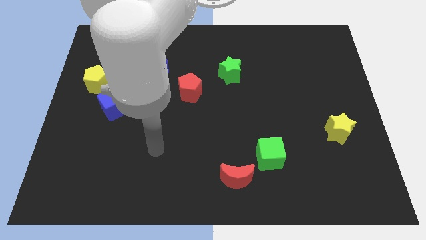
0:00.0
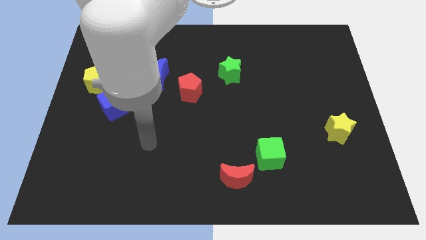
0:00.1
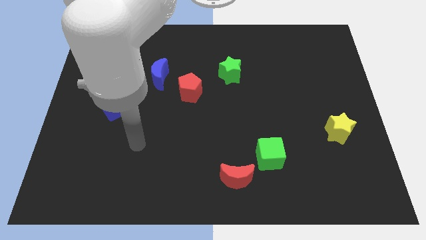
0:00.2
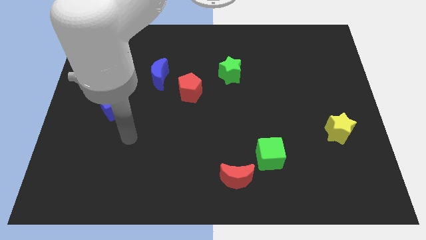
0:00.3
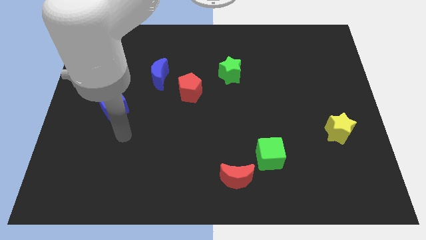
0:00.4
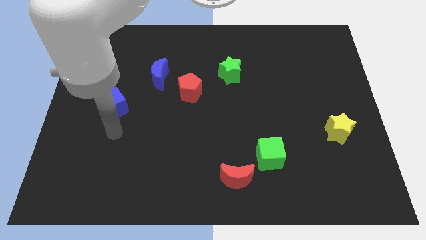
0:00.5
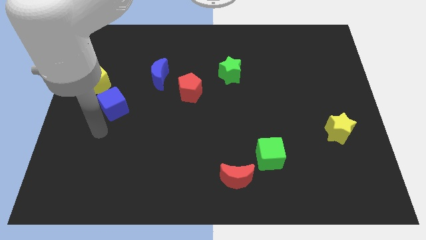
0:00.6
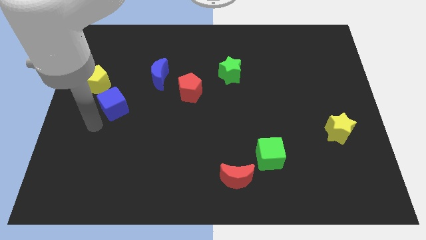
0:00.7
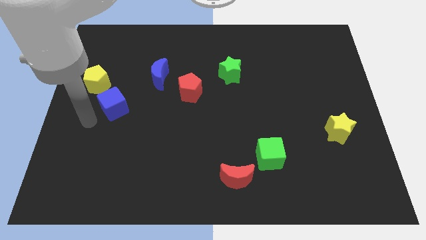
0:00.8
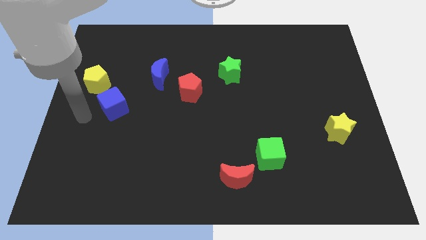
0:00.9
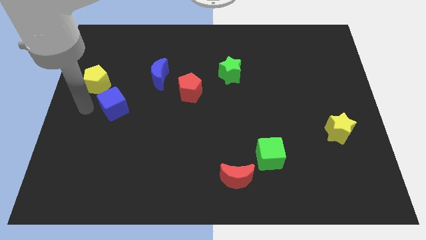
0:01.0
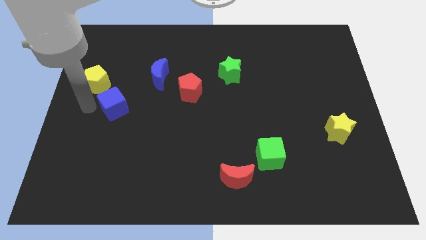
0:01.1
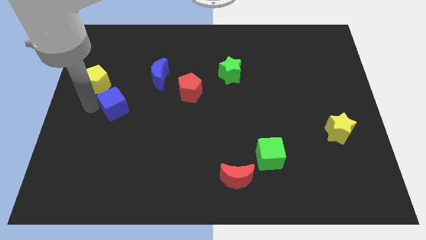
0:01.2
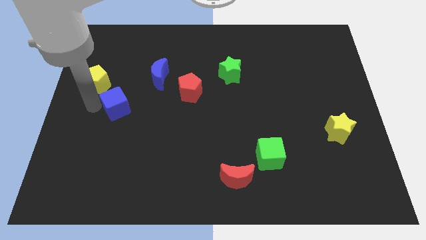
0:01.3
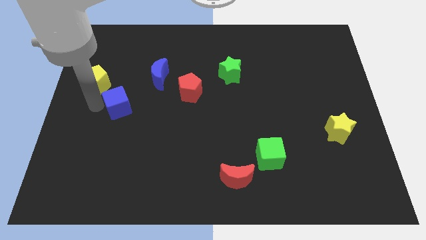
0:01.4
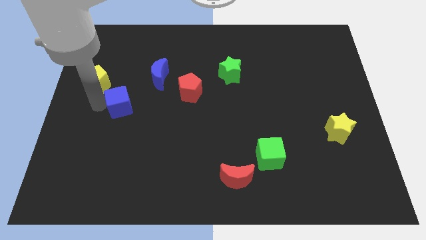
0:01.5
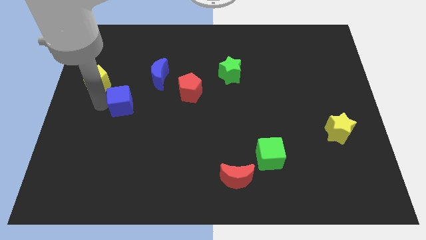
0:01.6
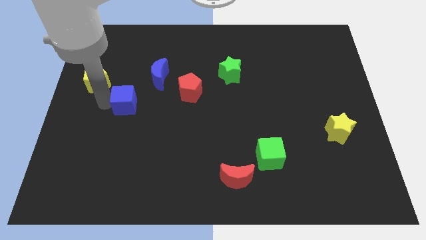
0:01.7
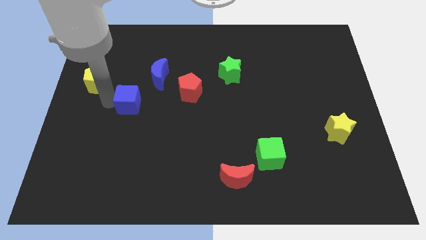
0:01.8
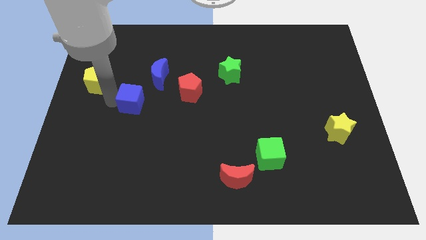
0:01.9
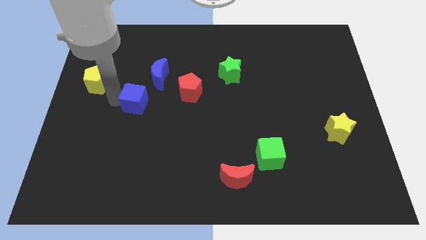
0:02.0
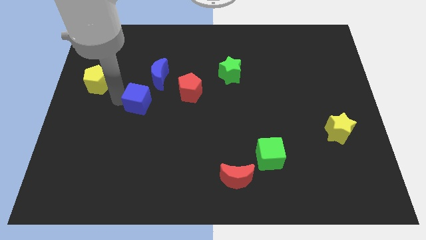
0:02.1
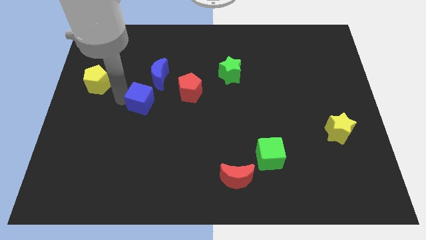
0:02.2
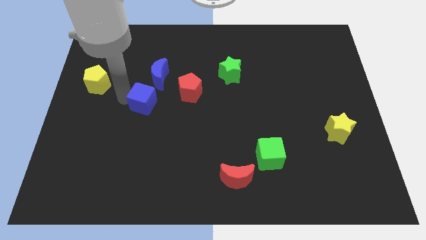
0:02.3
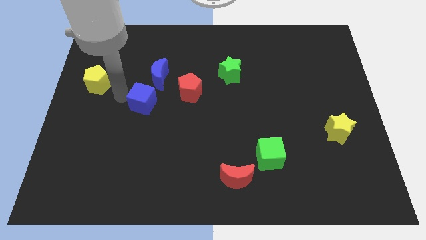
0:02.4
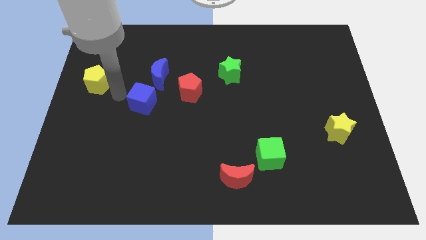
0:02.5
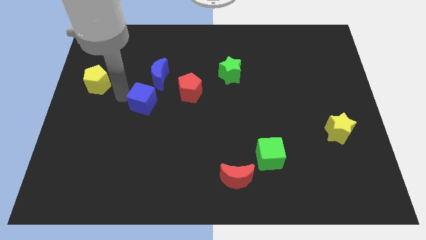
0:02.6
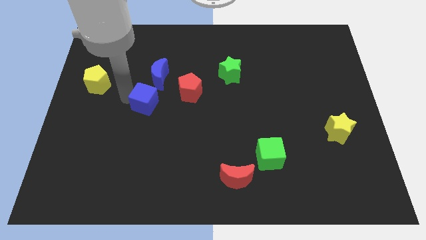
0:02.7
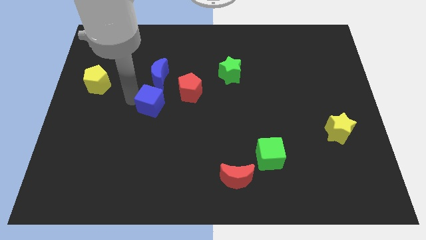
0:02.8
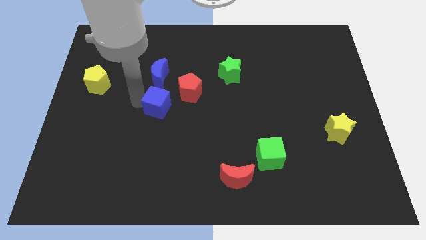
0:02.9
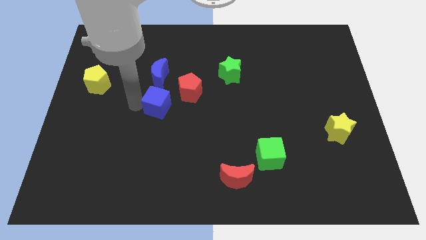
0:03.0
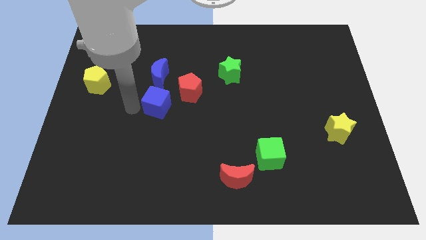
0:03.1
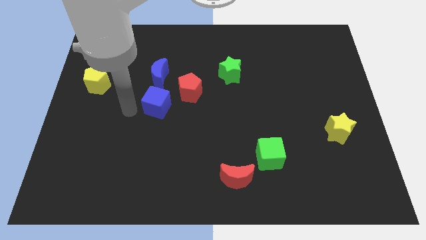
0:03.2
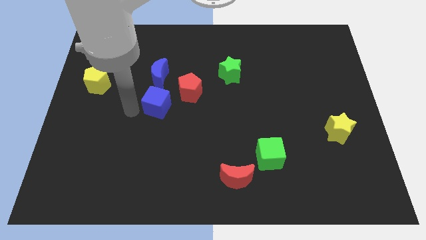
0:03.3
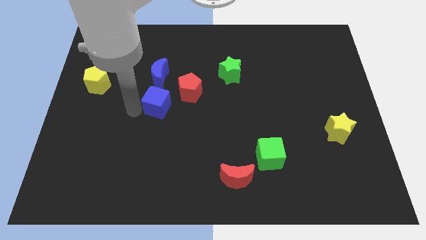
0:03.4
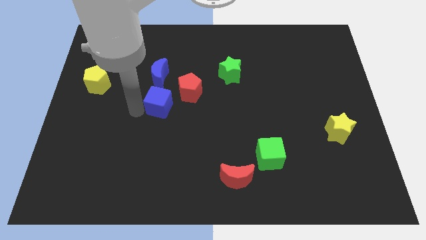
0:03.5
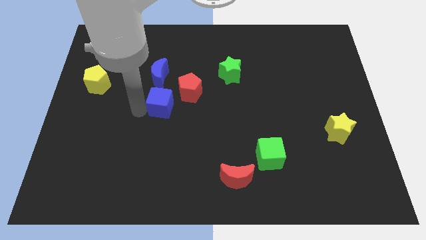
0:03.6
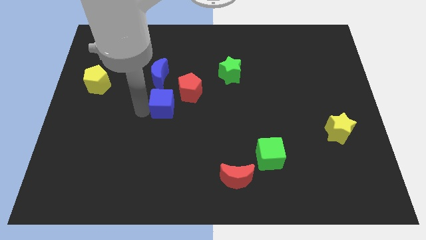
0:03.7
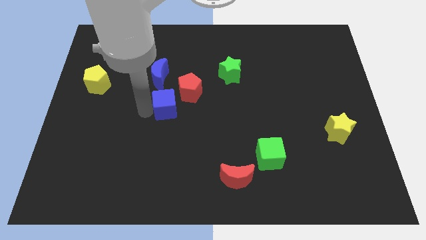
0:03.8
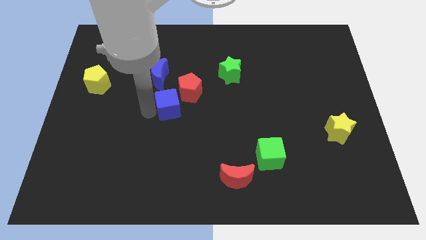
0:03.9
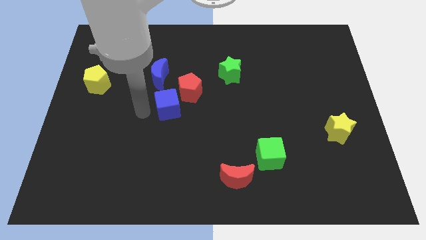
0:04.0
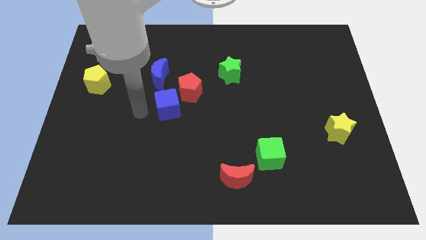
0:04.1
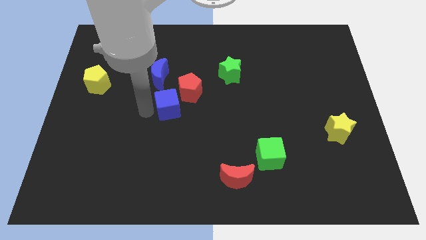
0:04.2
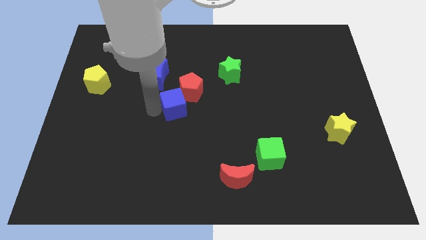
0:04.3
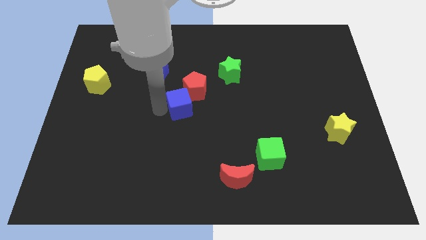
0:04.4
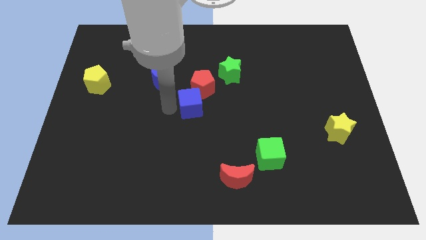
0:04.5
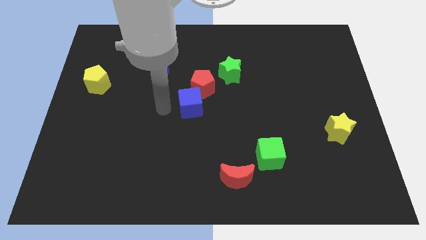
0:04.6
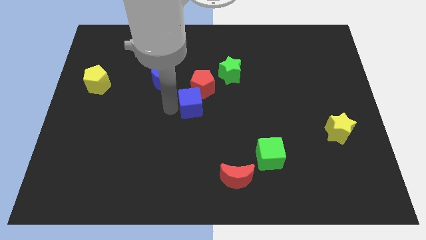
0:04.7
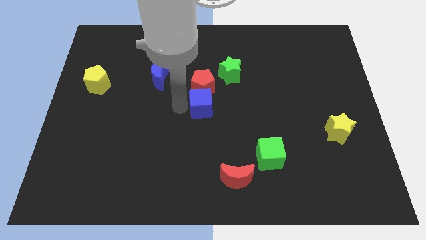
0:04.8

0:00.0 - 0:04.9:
put the blue cube to the bottom right of the red pentagon

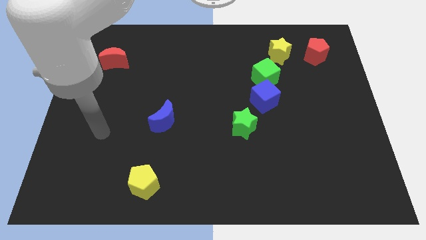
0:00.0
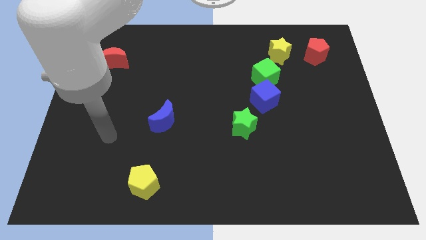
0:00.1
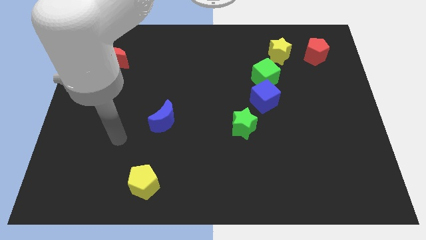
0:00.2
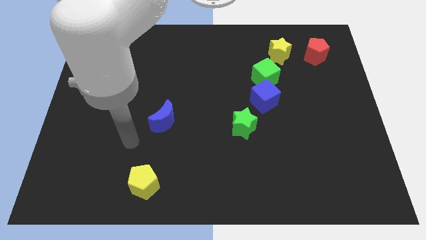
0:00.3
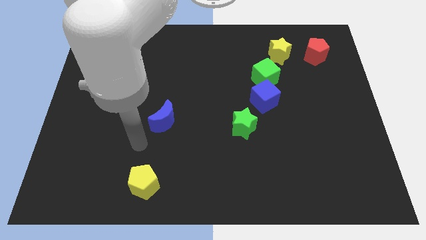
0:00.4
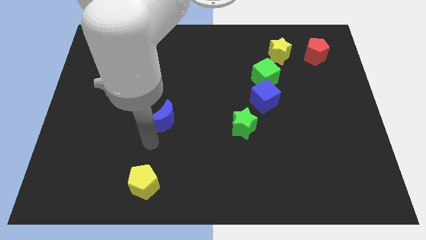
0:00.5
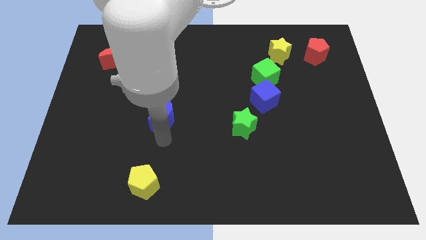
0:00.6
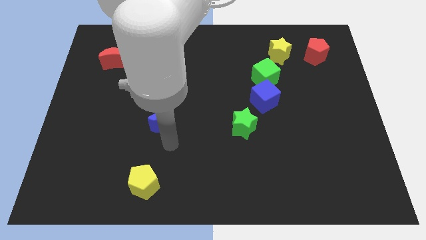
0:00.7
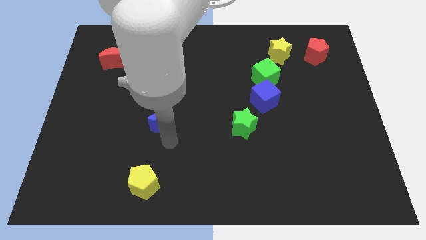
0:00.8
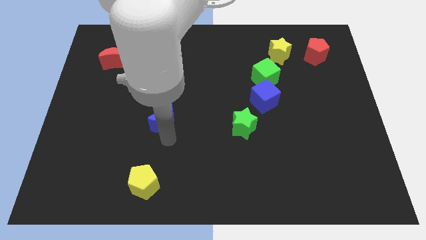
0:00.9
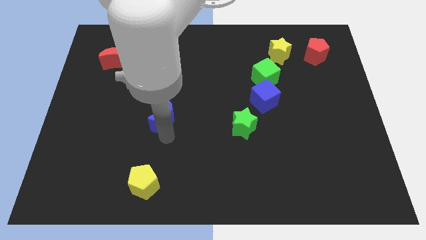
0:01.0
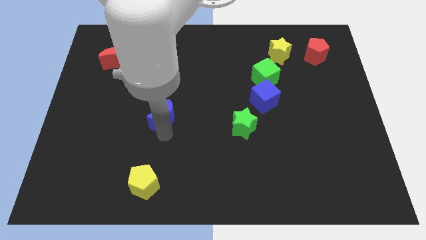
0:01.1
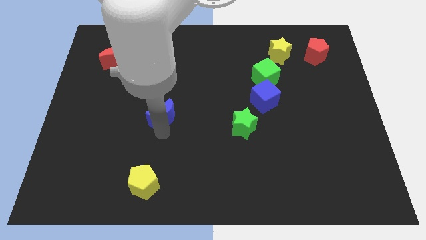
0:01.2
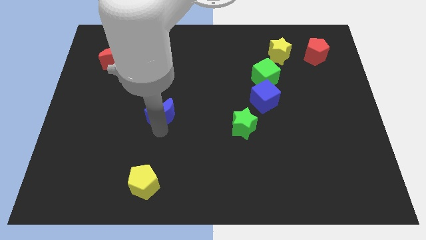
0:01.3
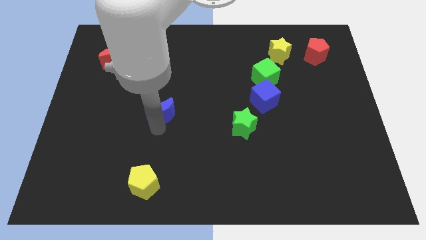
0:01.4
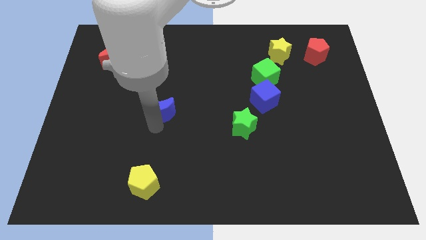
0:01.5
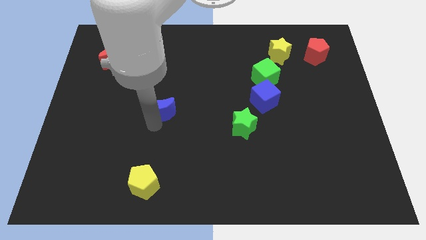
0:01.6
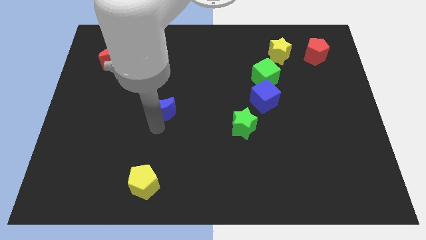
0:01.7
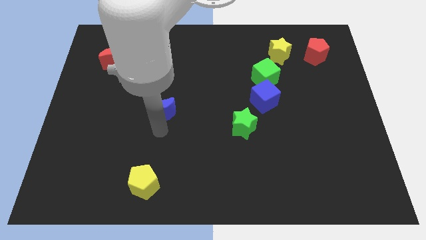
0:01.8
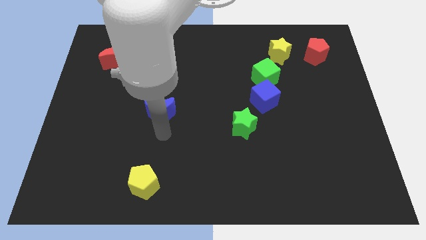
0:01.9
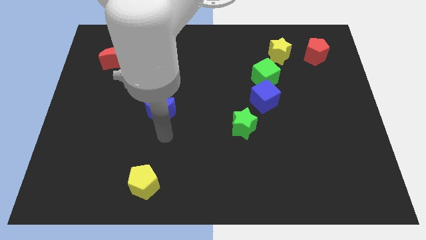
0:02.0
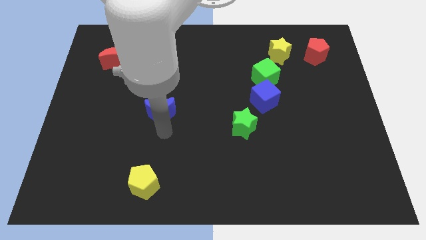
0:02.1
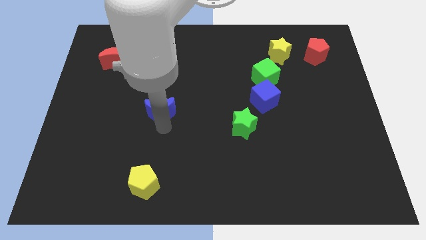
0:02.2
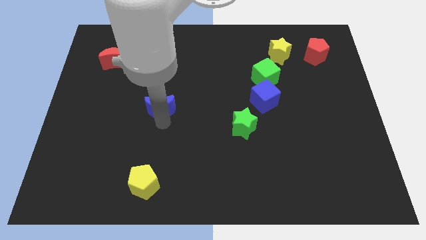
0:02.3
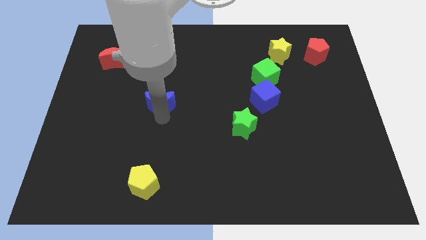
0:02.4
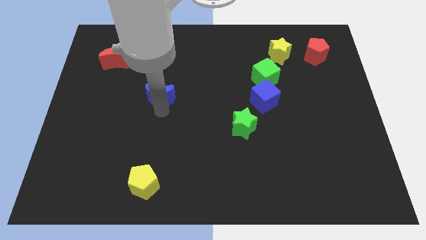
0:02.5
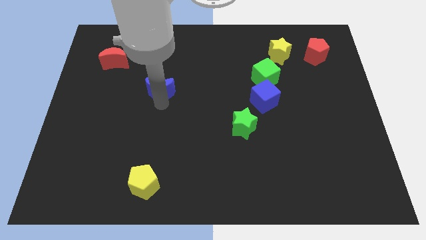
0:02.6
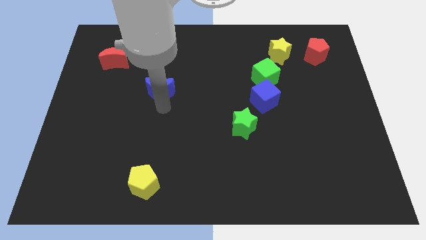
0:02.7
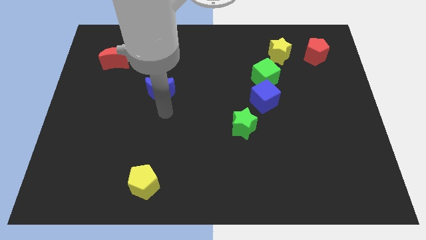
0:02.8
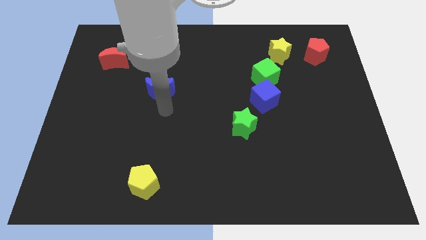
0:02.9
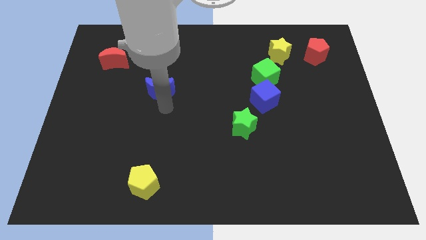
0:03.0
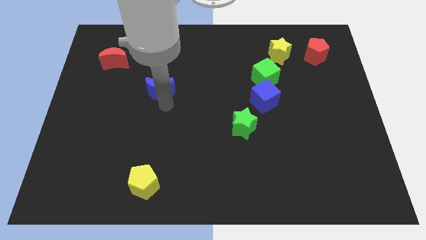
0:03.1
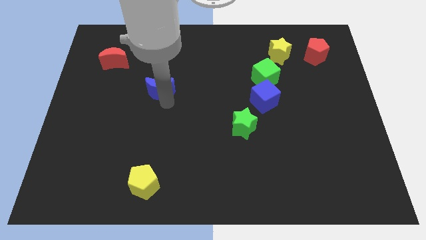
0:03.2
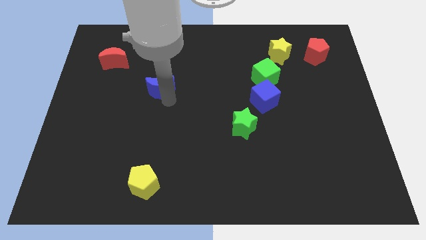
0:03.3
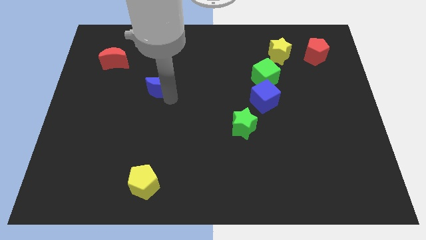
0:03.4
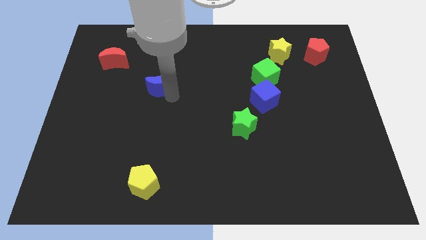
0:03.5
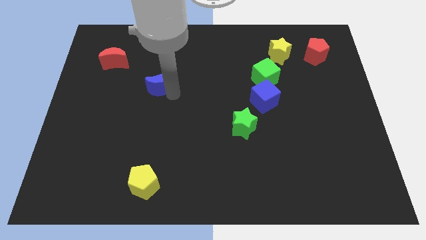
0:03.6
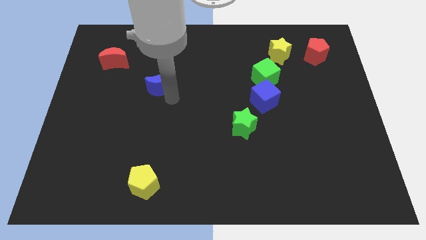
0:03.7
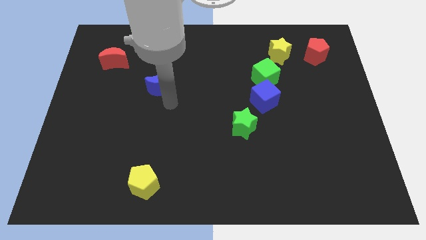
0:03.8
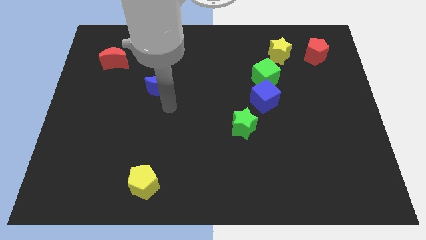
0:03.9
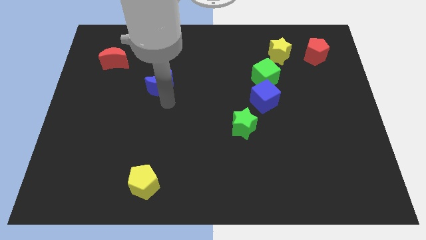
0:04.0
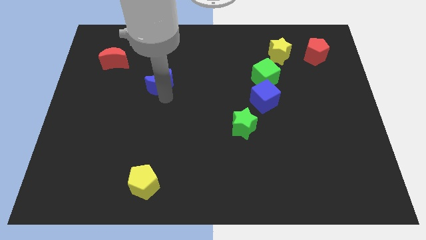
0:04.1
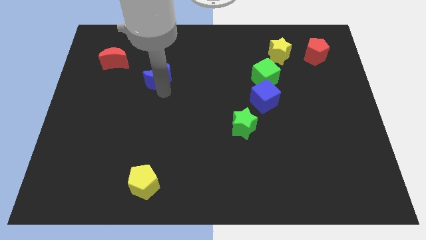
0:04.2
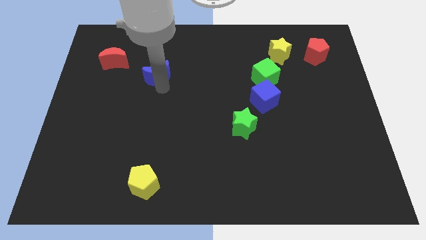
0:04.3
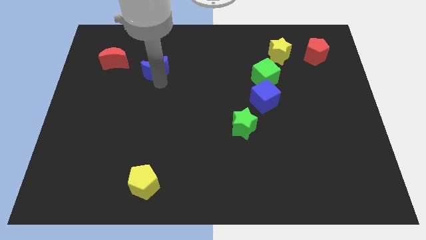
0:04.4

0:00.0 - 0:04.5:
slide the blue moon right of the red moon
